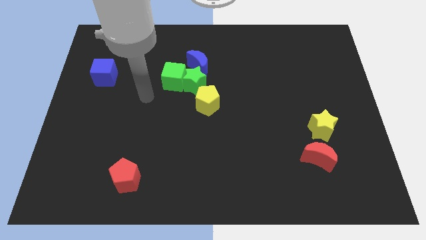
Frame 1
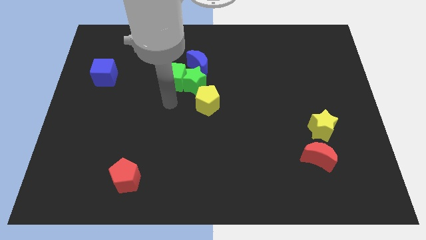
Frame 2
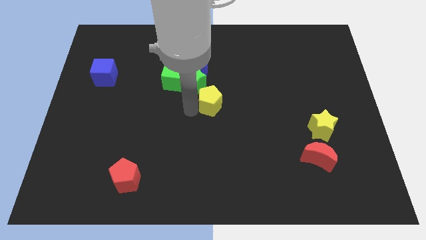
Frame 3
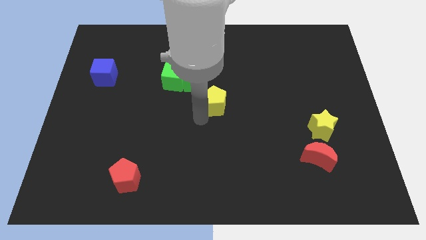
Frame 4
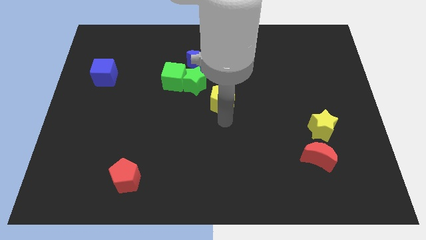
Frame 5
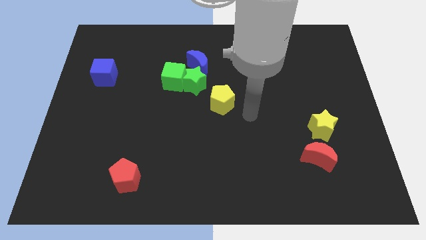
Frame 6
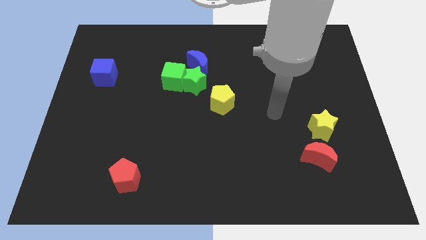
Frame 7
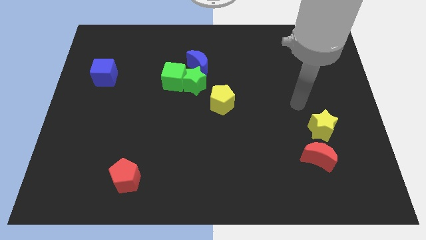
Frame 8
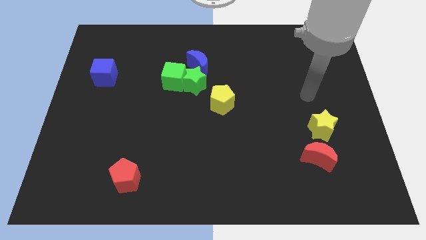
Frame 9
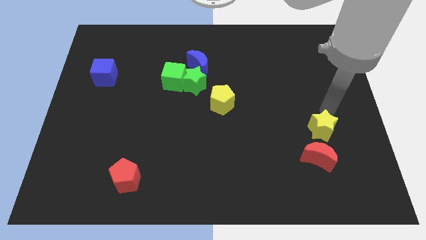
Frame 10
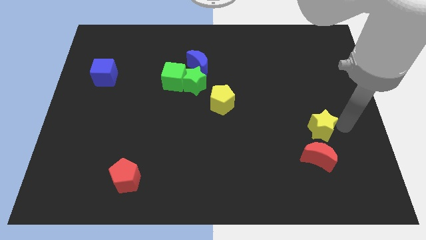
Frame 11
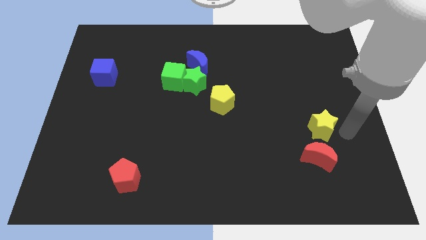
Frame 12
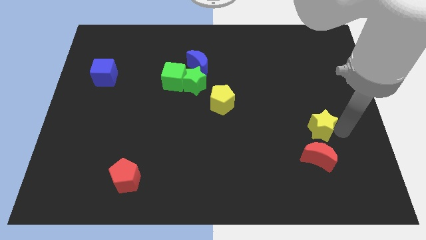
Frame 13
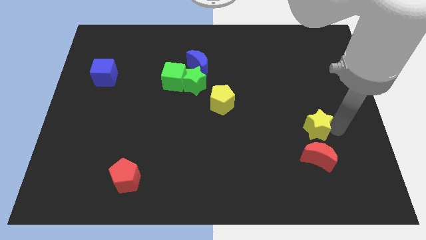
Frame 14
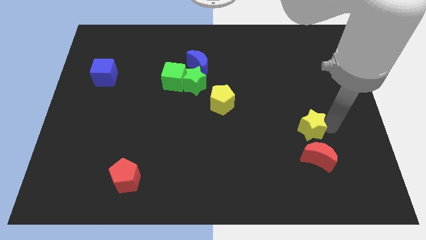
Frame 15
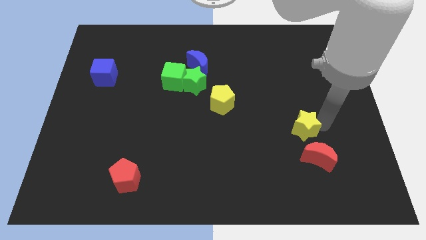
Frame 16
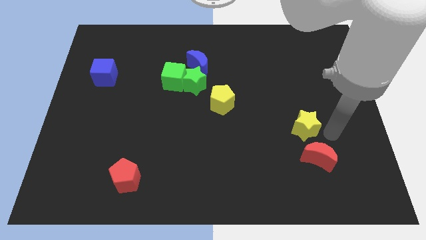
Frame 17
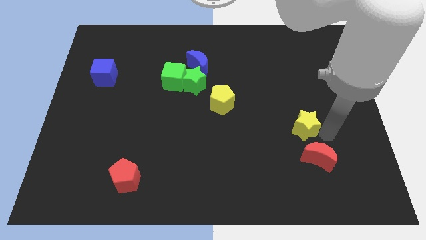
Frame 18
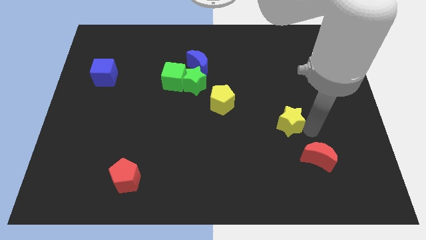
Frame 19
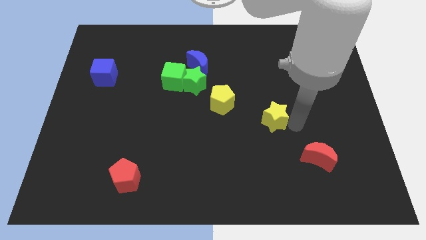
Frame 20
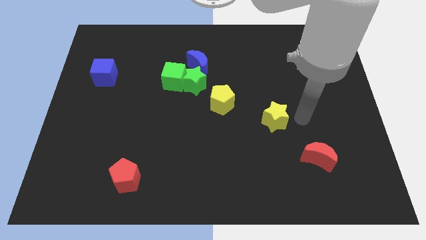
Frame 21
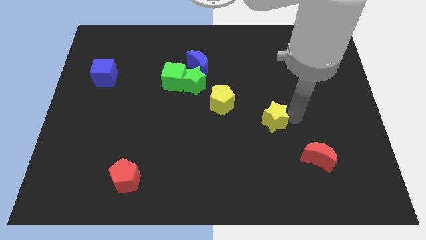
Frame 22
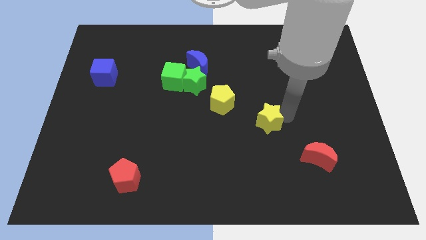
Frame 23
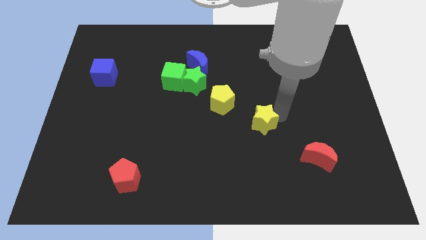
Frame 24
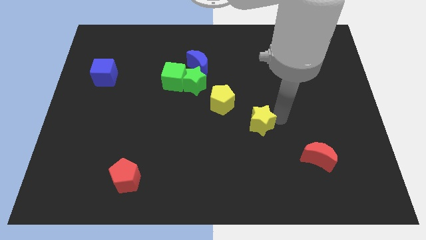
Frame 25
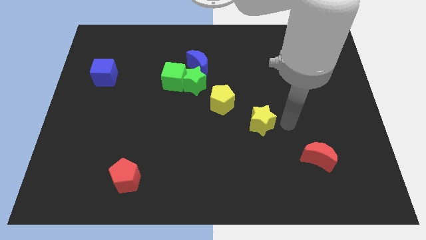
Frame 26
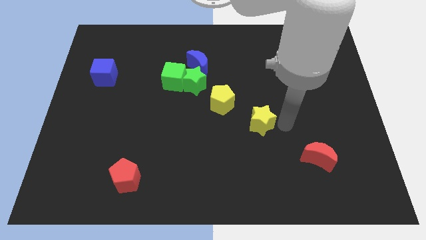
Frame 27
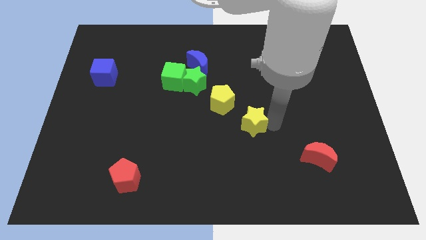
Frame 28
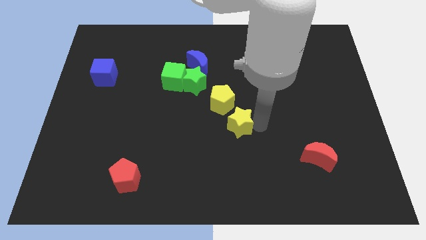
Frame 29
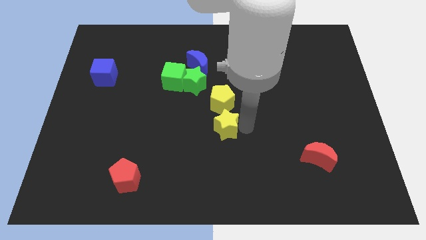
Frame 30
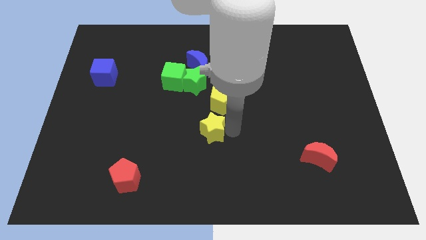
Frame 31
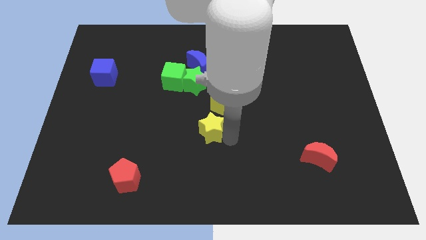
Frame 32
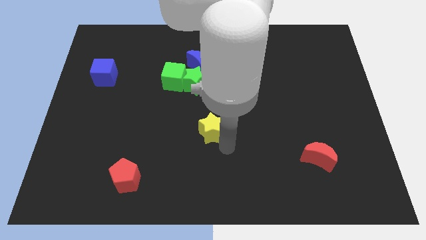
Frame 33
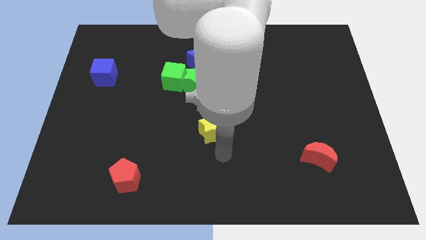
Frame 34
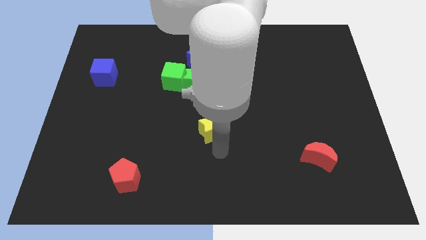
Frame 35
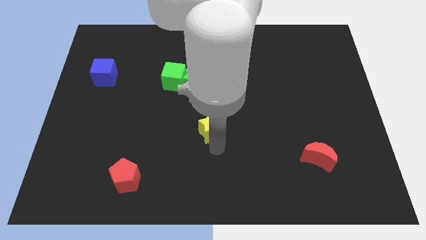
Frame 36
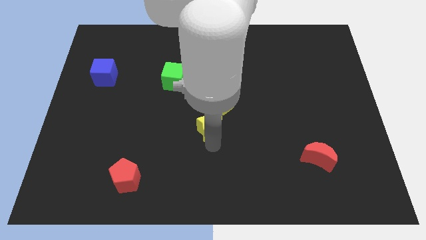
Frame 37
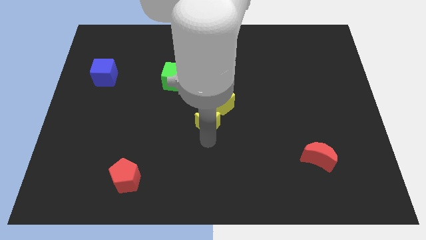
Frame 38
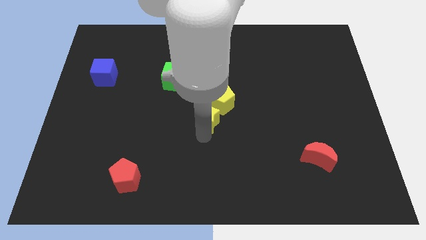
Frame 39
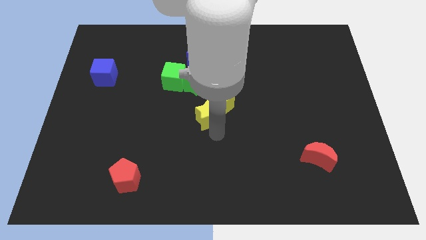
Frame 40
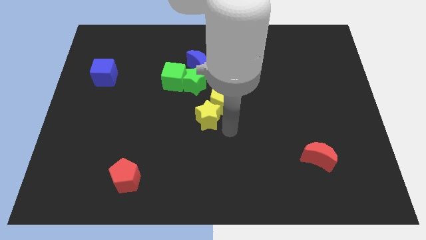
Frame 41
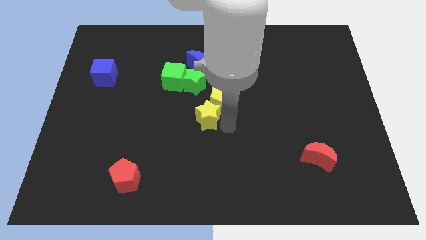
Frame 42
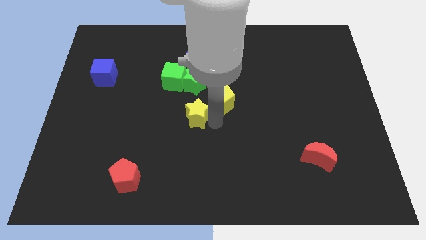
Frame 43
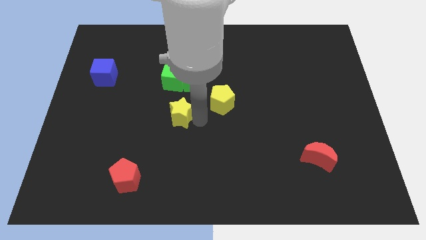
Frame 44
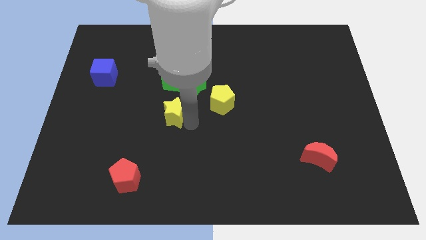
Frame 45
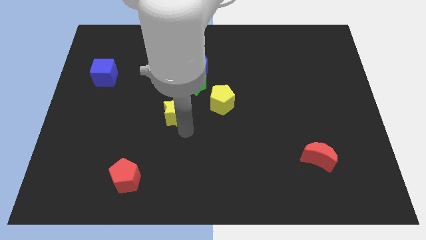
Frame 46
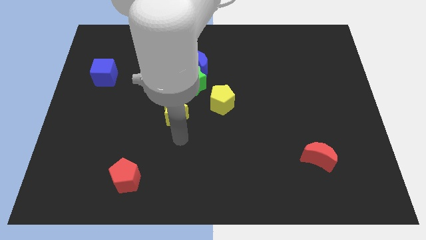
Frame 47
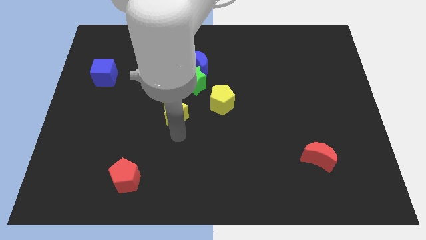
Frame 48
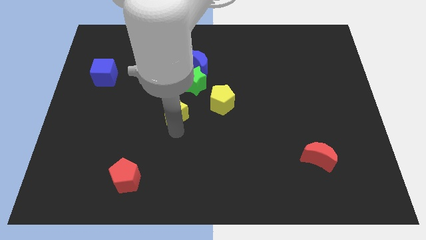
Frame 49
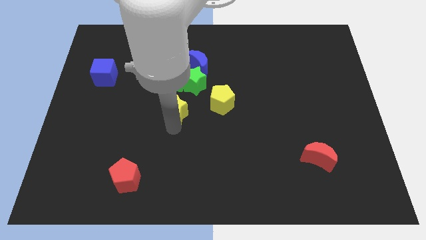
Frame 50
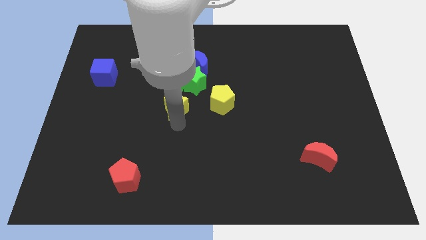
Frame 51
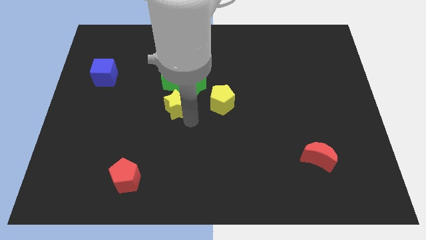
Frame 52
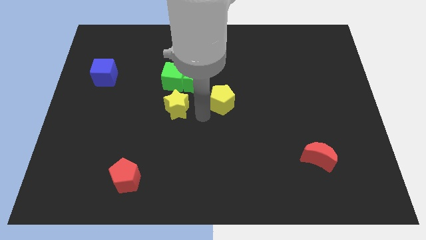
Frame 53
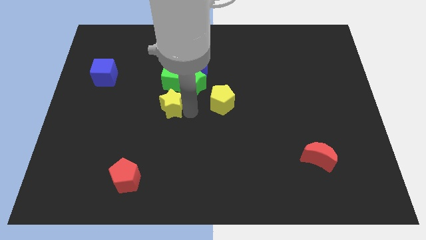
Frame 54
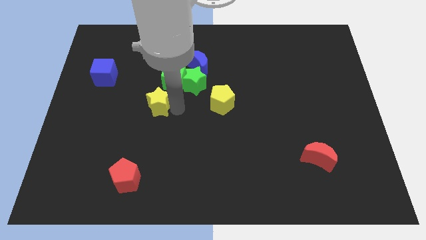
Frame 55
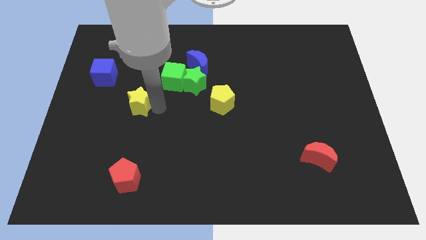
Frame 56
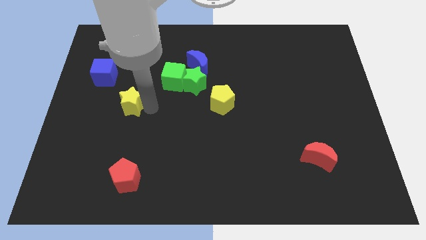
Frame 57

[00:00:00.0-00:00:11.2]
move the yellow star to the bottom right of the blue cube
